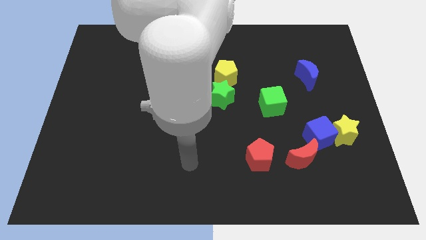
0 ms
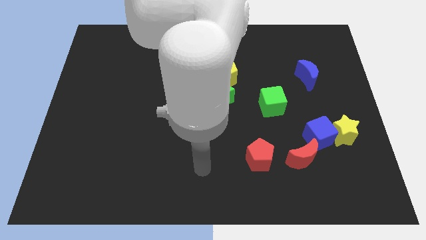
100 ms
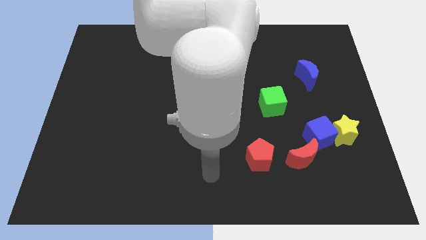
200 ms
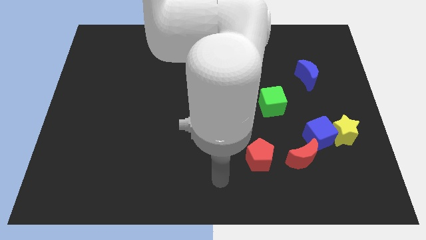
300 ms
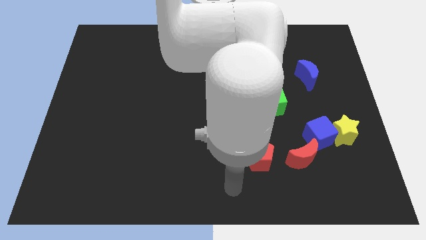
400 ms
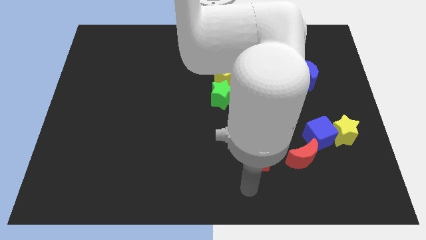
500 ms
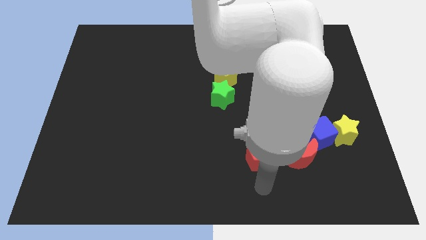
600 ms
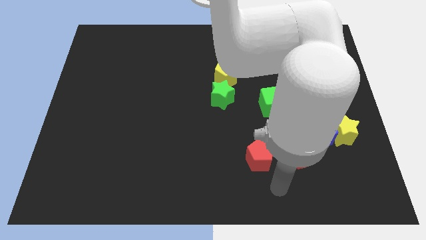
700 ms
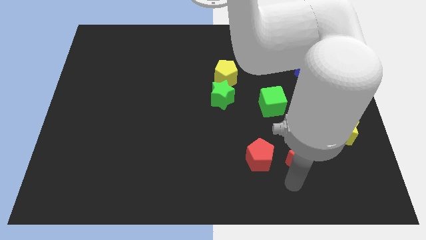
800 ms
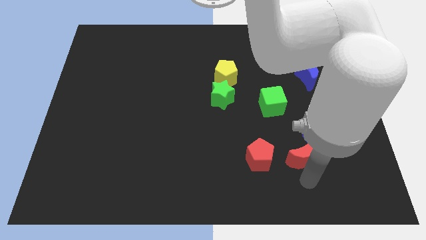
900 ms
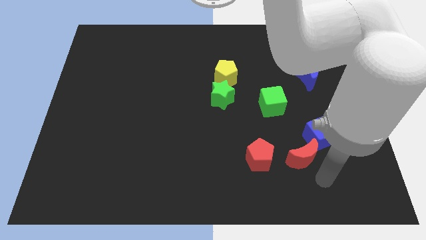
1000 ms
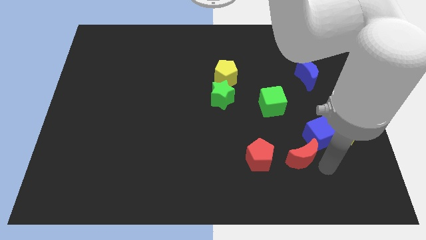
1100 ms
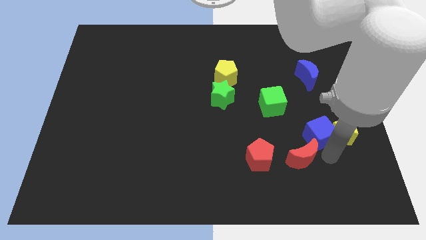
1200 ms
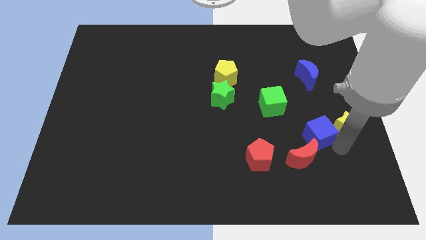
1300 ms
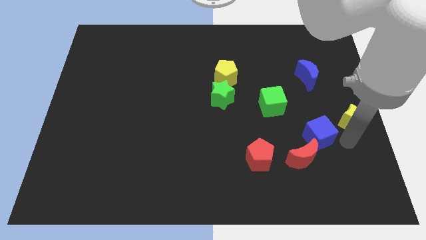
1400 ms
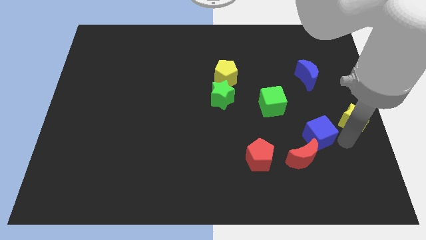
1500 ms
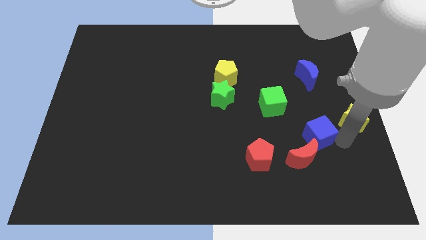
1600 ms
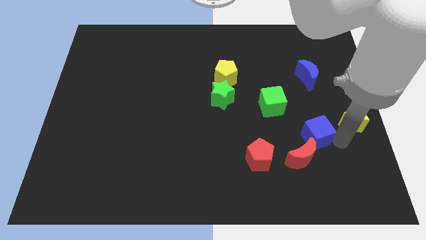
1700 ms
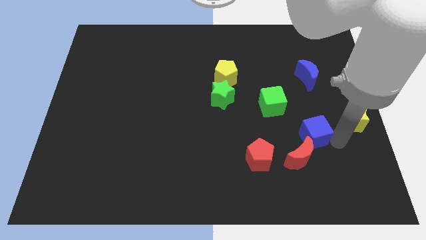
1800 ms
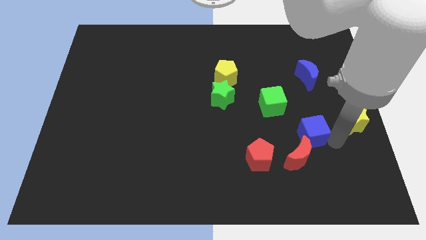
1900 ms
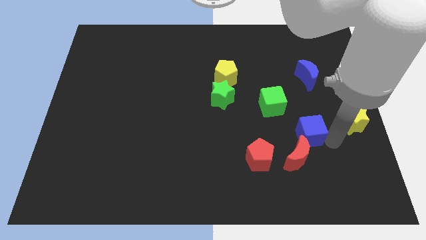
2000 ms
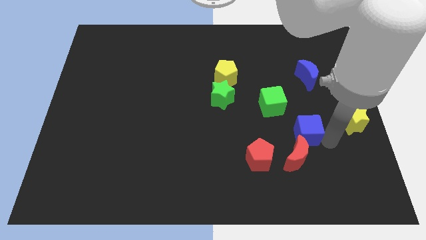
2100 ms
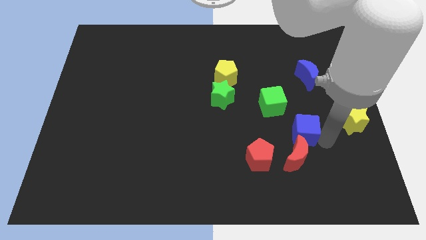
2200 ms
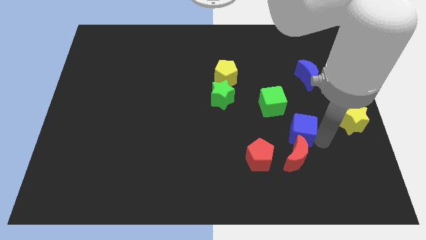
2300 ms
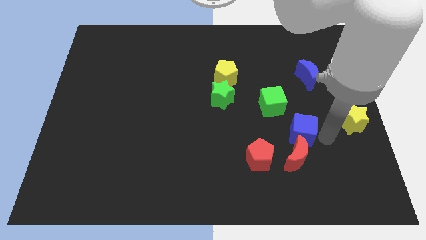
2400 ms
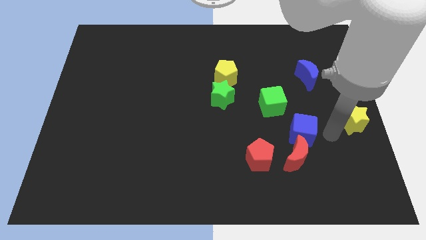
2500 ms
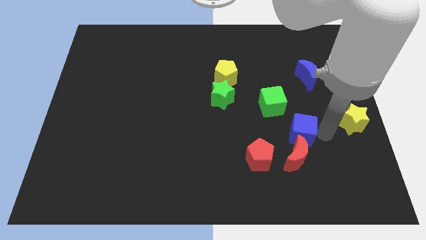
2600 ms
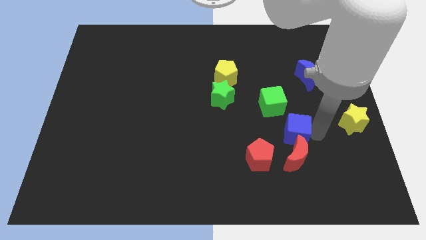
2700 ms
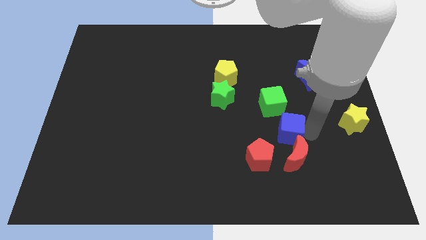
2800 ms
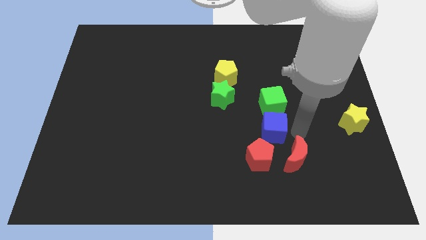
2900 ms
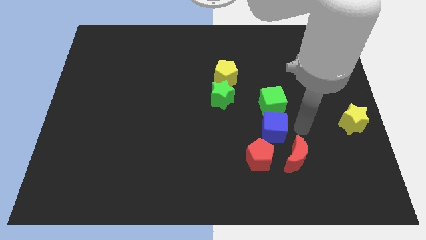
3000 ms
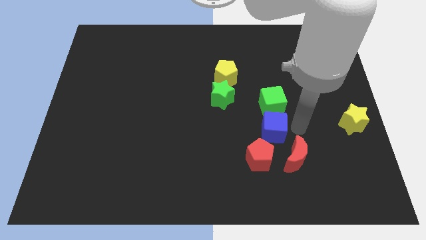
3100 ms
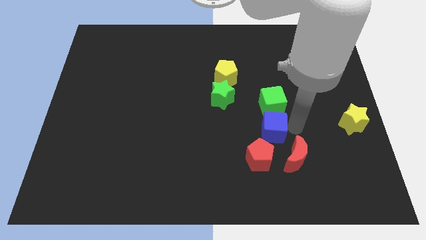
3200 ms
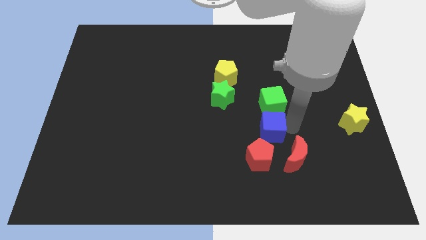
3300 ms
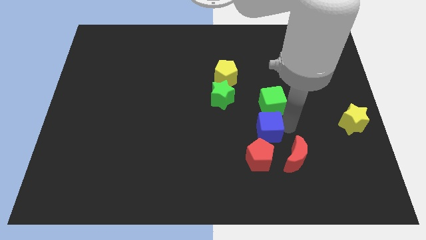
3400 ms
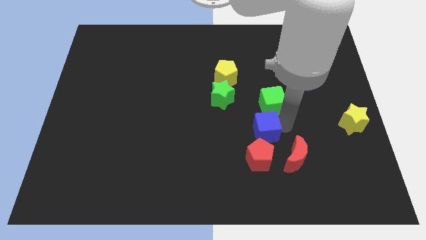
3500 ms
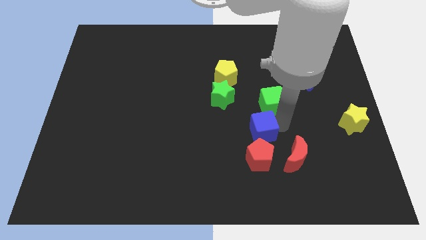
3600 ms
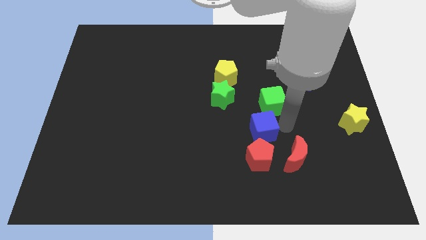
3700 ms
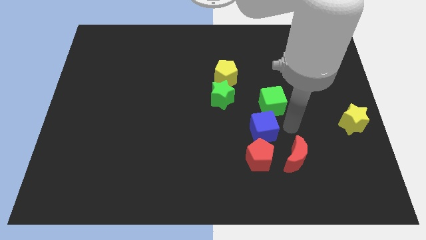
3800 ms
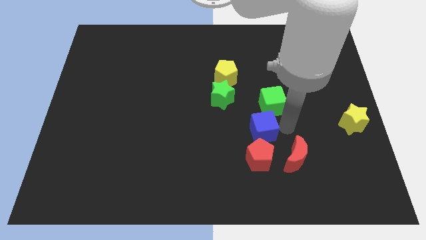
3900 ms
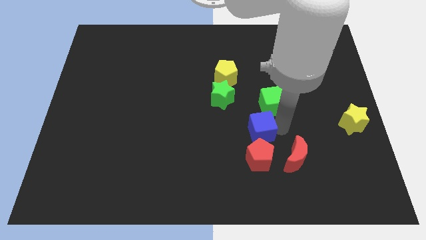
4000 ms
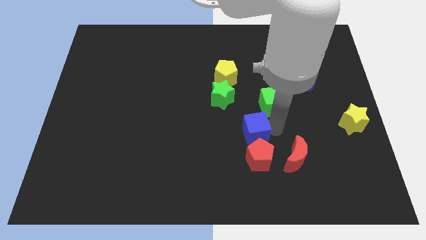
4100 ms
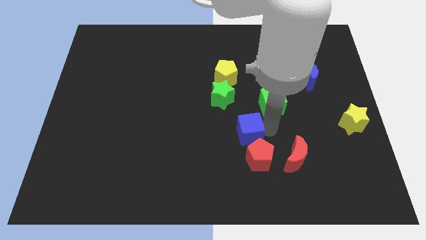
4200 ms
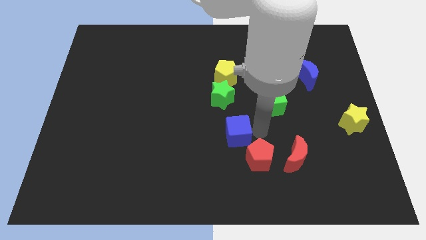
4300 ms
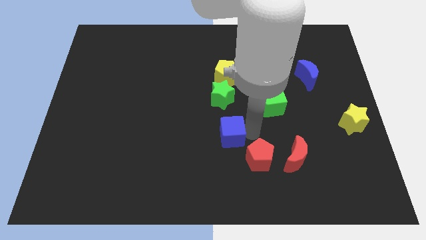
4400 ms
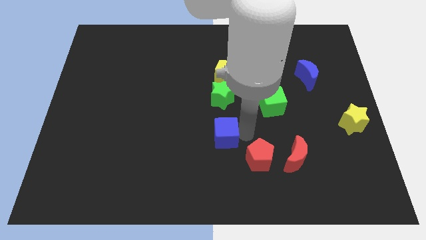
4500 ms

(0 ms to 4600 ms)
move the blue cube left

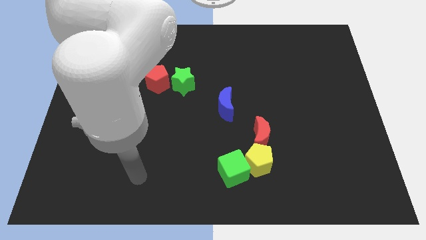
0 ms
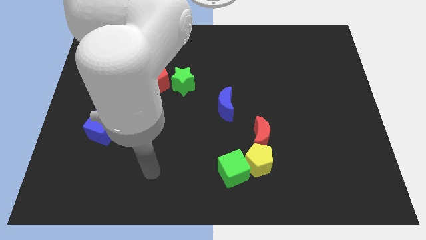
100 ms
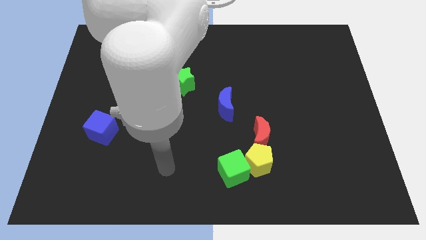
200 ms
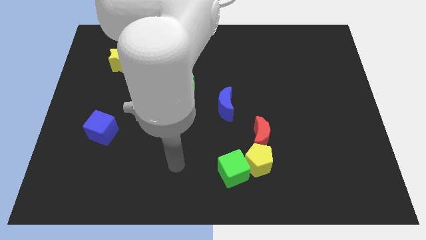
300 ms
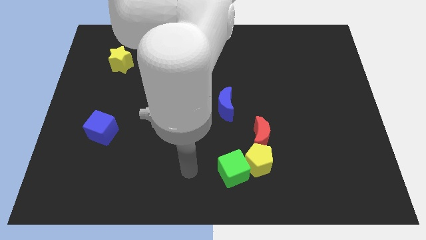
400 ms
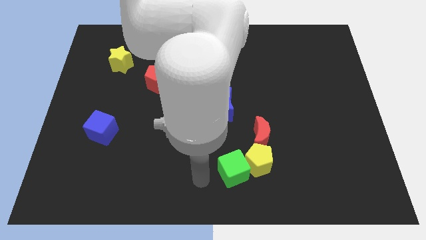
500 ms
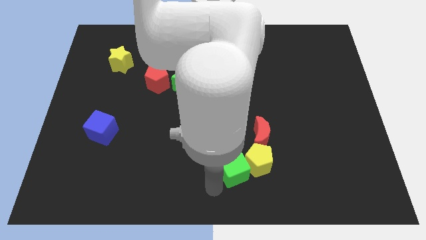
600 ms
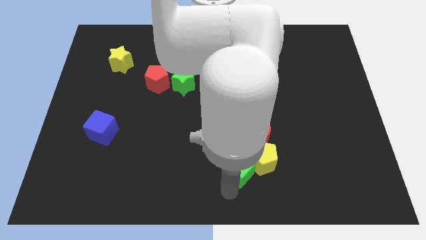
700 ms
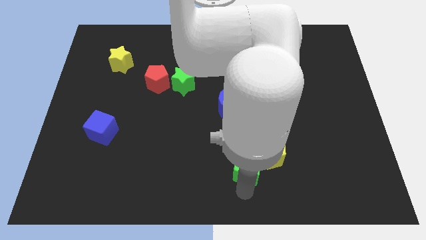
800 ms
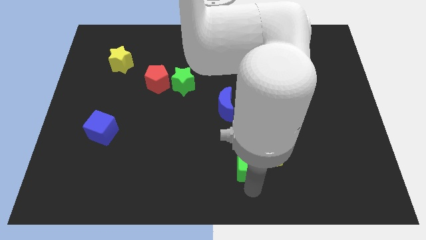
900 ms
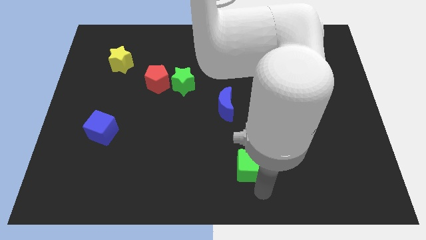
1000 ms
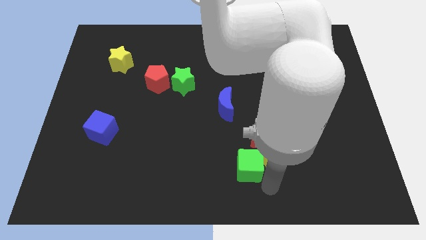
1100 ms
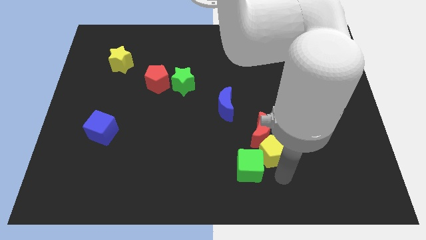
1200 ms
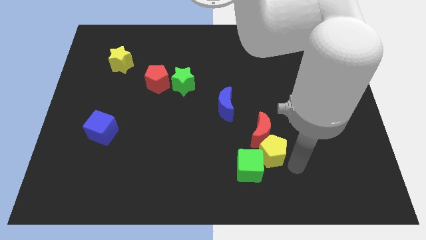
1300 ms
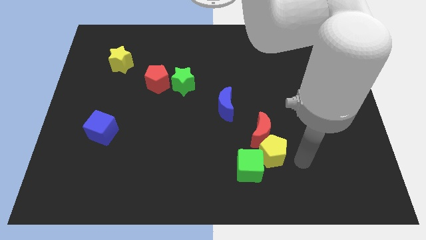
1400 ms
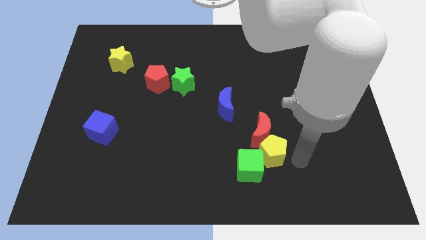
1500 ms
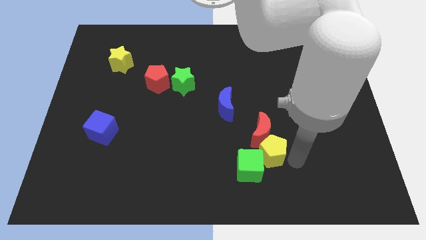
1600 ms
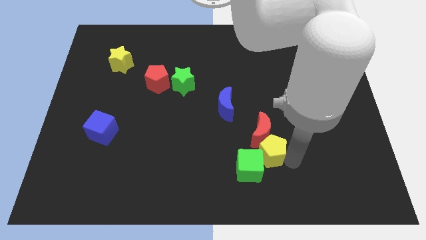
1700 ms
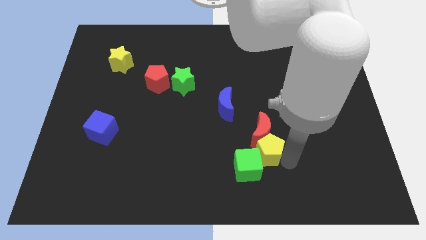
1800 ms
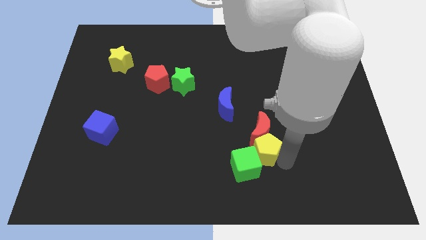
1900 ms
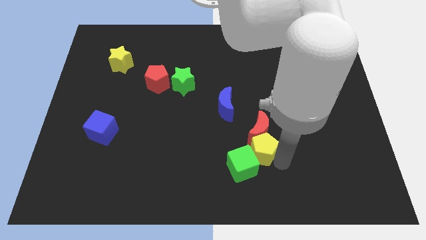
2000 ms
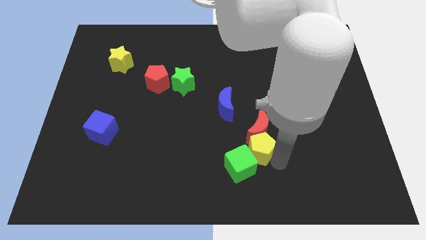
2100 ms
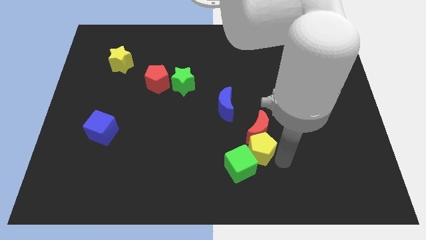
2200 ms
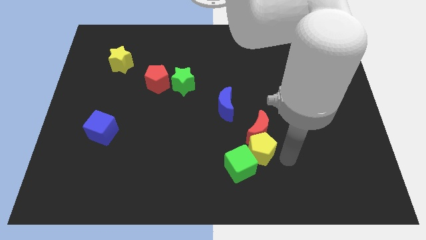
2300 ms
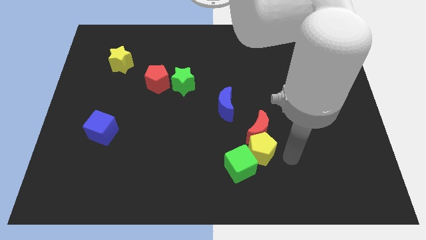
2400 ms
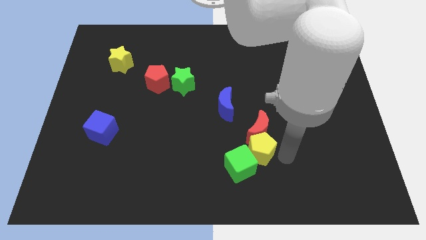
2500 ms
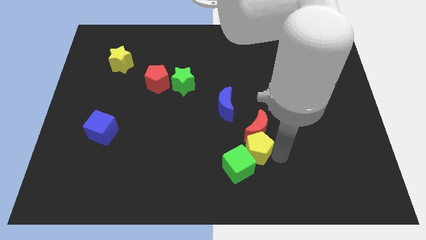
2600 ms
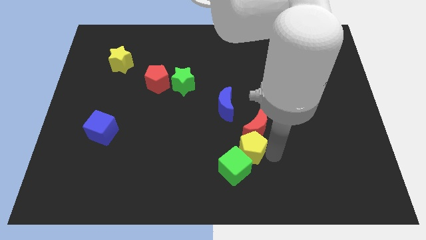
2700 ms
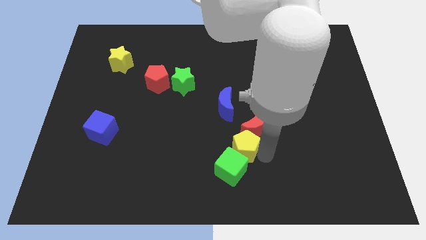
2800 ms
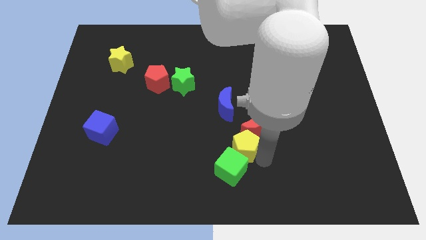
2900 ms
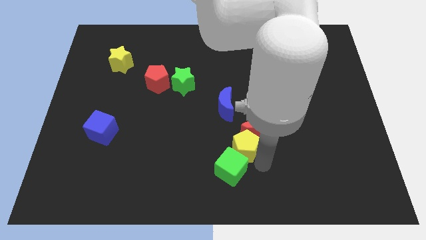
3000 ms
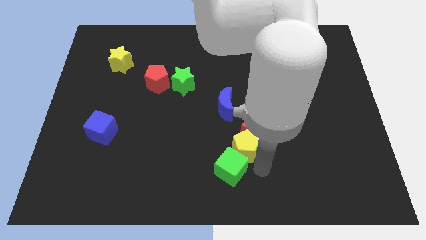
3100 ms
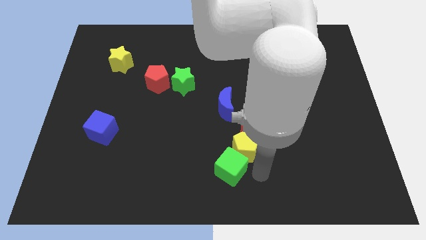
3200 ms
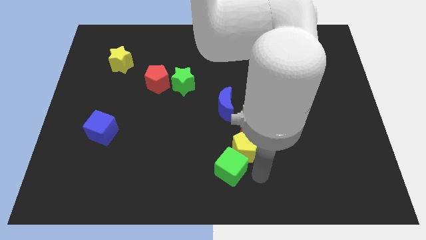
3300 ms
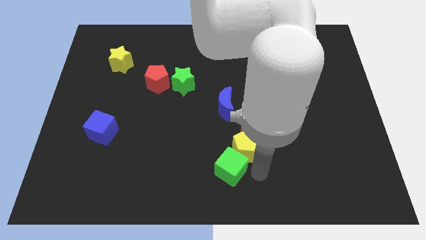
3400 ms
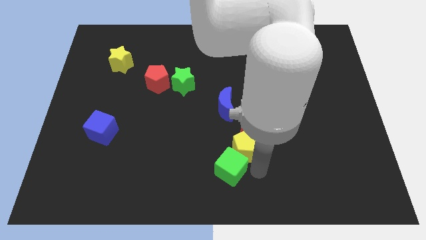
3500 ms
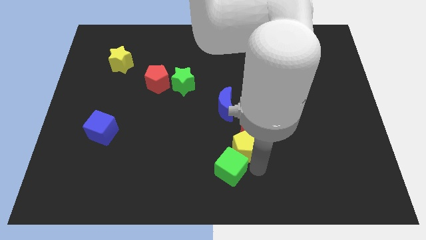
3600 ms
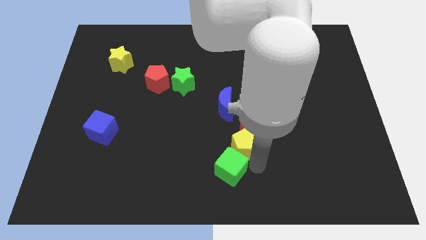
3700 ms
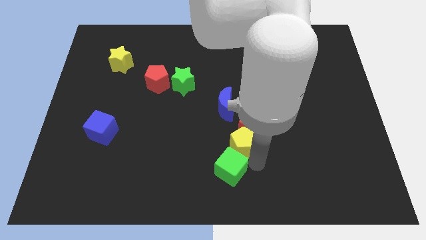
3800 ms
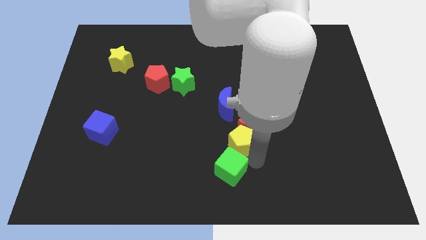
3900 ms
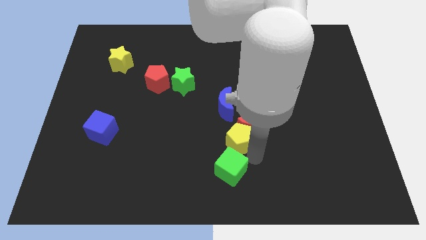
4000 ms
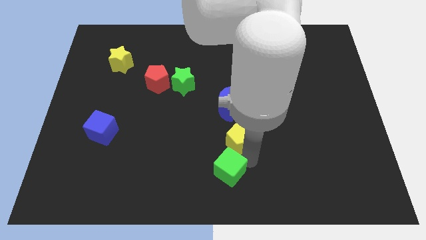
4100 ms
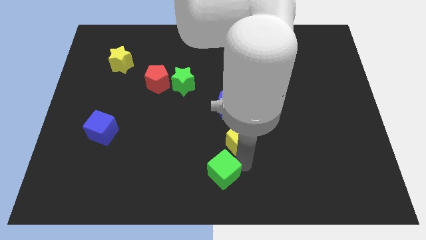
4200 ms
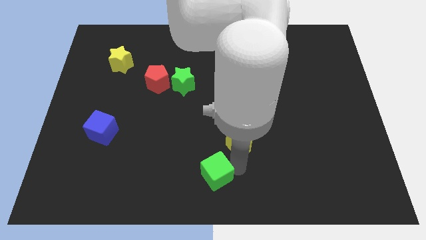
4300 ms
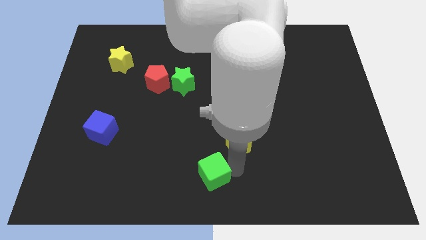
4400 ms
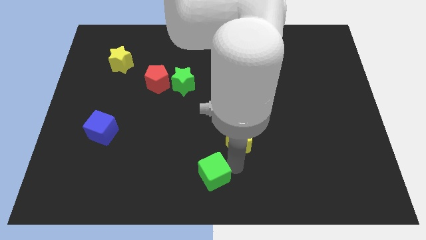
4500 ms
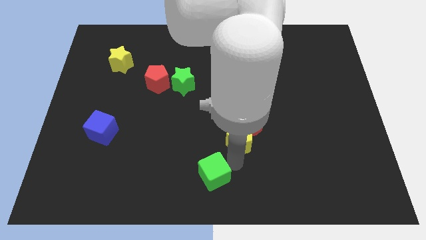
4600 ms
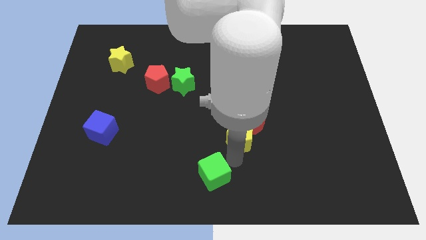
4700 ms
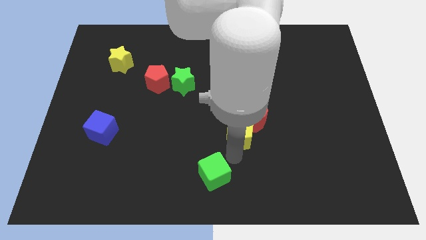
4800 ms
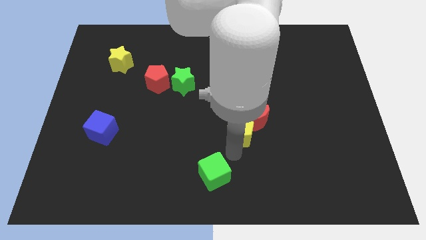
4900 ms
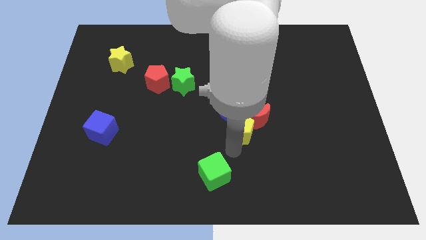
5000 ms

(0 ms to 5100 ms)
slide the yellow pentagon upwards a bit
